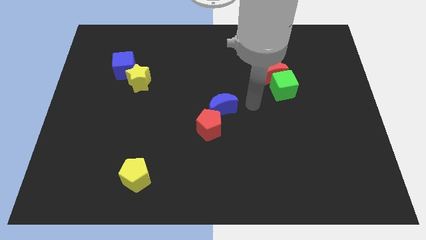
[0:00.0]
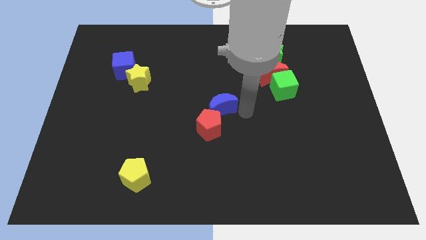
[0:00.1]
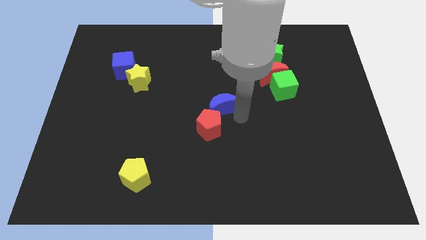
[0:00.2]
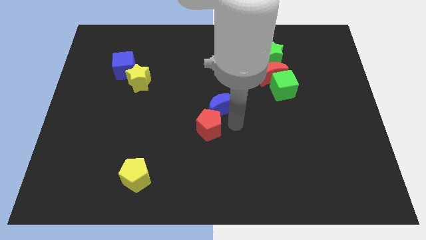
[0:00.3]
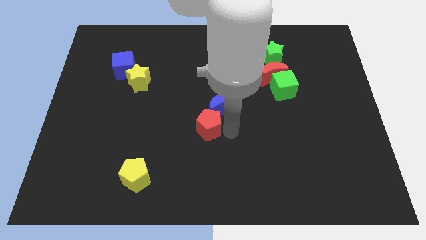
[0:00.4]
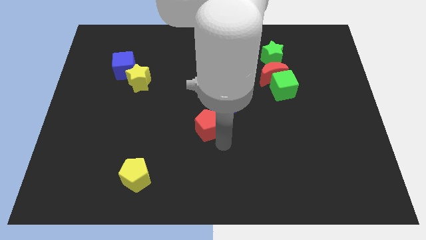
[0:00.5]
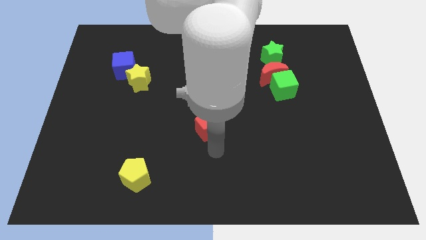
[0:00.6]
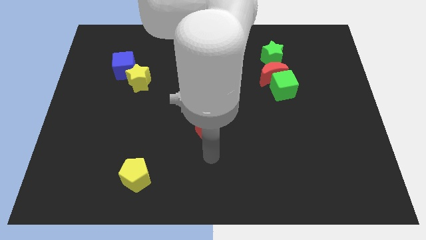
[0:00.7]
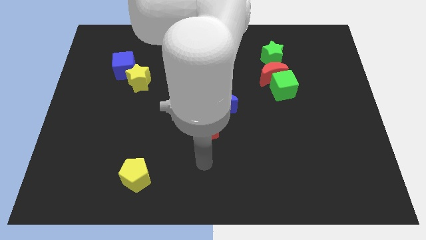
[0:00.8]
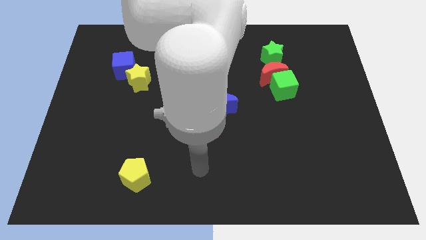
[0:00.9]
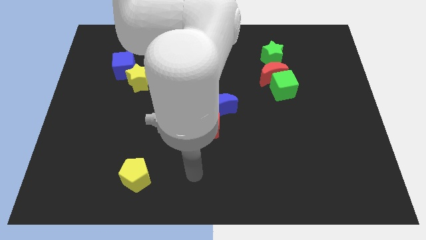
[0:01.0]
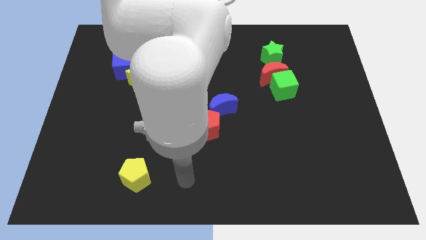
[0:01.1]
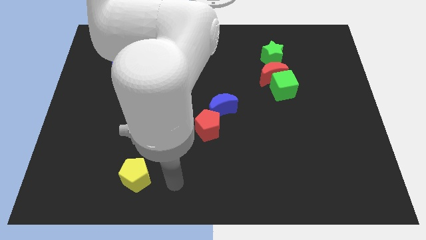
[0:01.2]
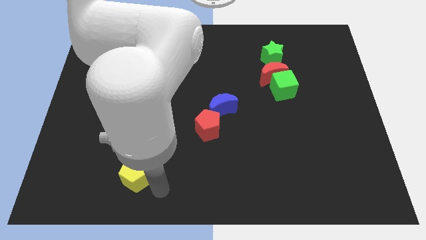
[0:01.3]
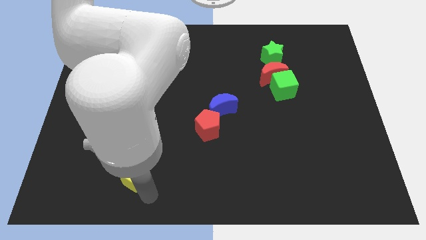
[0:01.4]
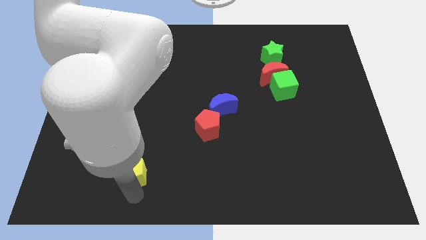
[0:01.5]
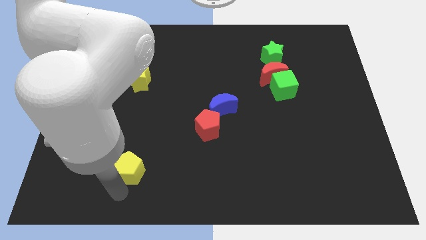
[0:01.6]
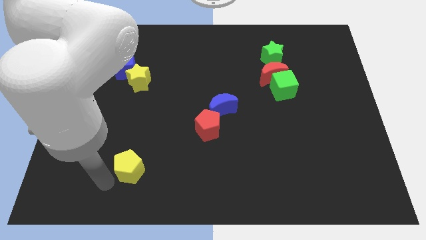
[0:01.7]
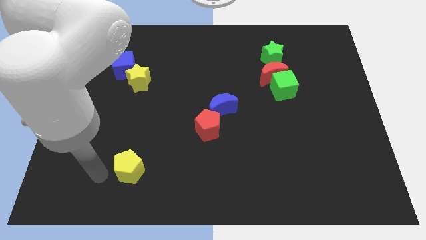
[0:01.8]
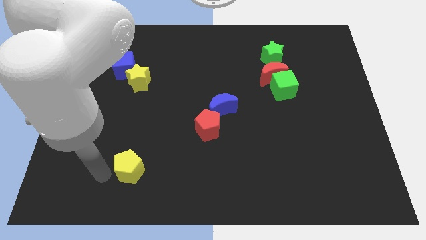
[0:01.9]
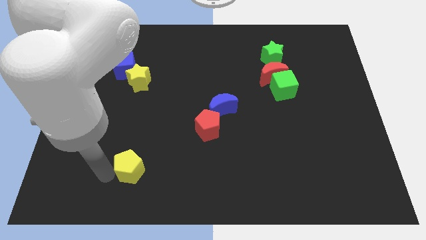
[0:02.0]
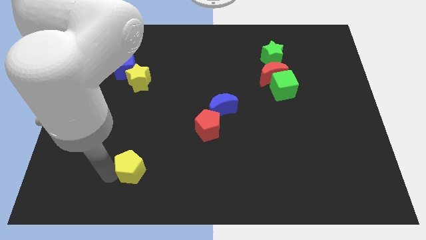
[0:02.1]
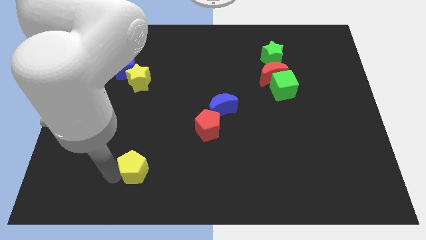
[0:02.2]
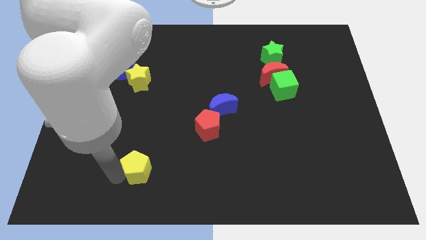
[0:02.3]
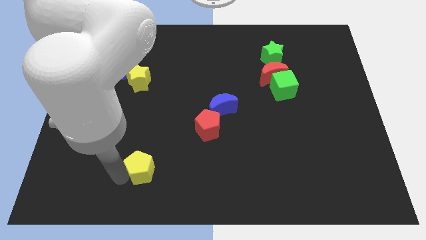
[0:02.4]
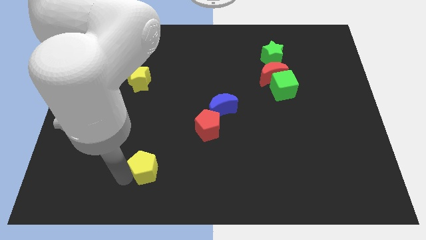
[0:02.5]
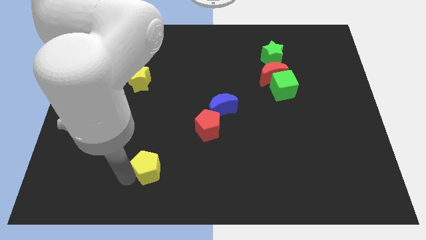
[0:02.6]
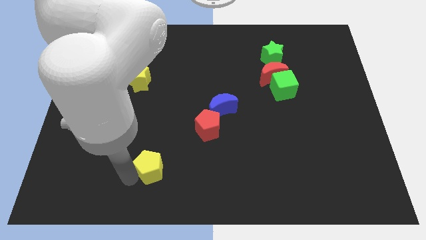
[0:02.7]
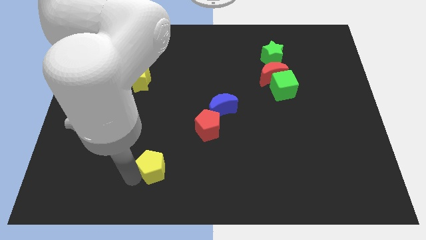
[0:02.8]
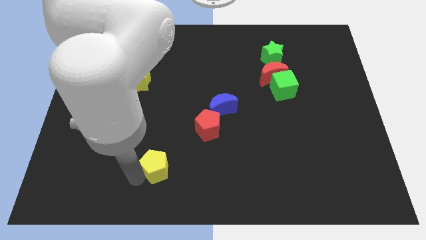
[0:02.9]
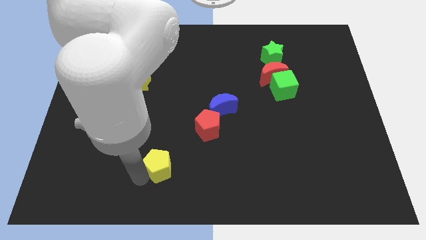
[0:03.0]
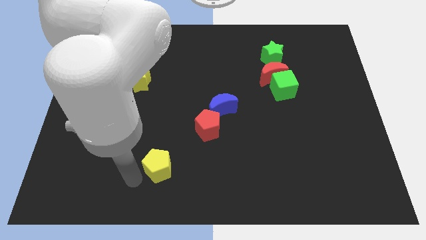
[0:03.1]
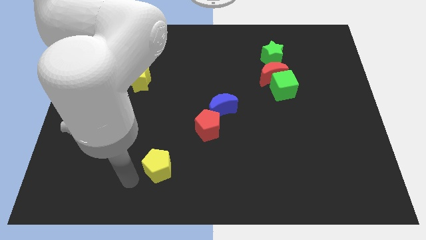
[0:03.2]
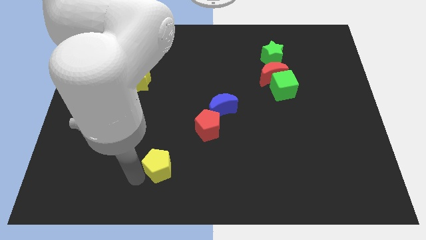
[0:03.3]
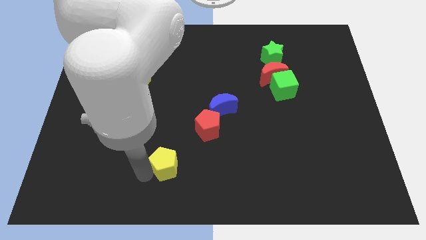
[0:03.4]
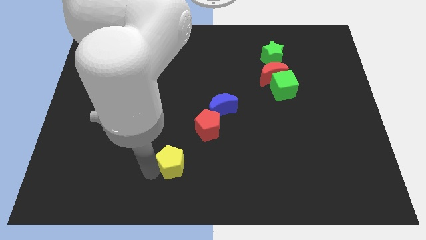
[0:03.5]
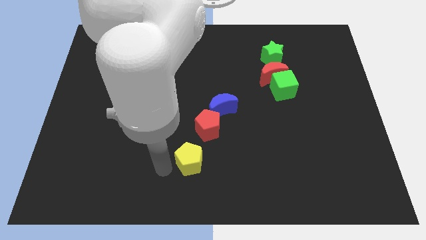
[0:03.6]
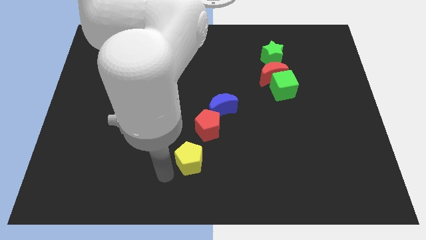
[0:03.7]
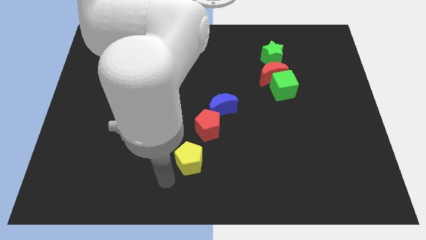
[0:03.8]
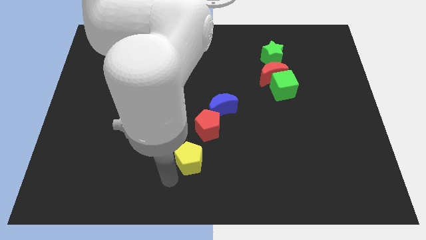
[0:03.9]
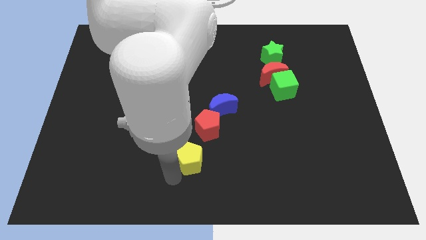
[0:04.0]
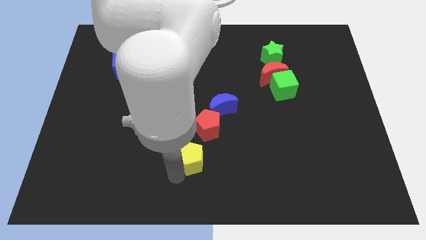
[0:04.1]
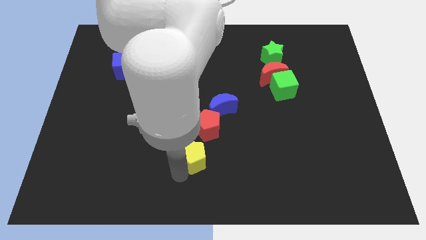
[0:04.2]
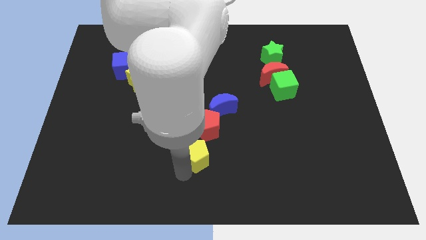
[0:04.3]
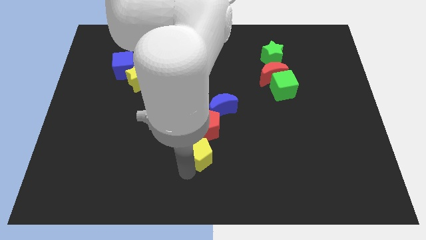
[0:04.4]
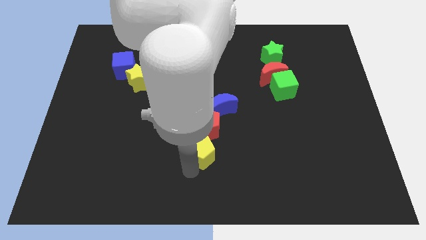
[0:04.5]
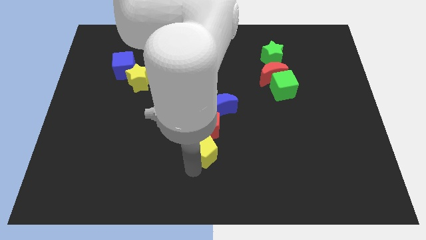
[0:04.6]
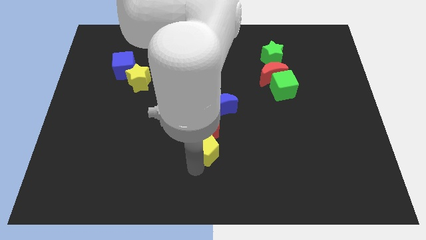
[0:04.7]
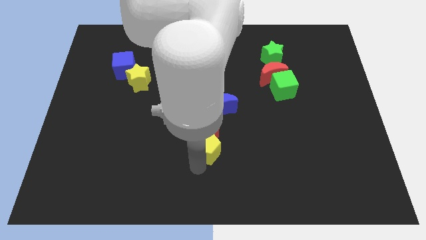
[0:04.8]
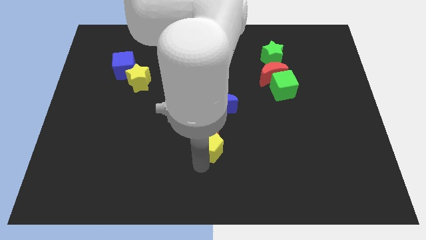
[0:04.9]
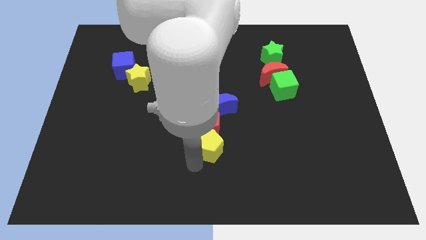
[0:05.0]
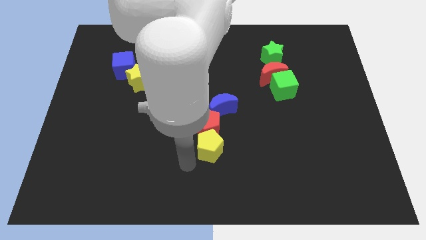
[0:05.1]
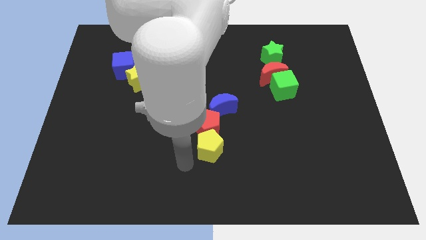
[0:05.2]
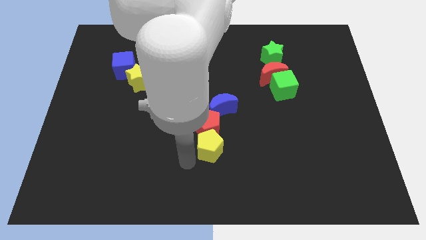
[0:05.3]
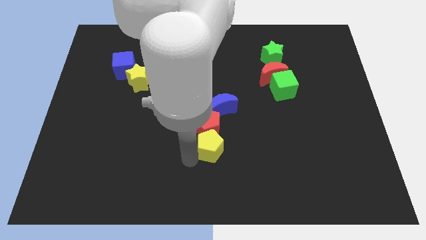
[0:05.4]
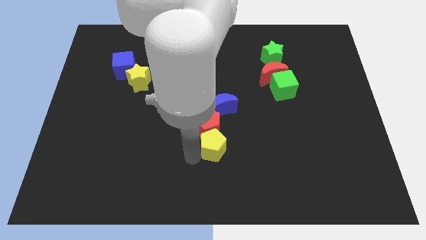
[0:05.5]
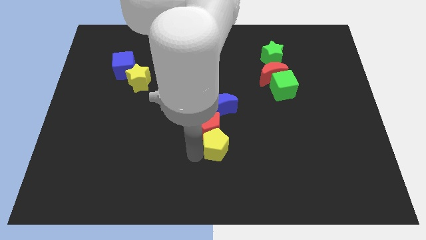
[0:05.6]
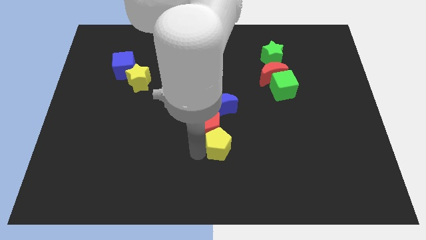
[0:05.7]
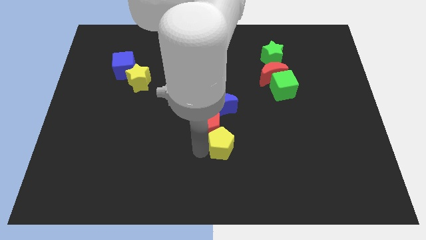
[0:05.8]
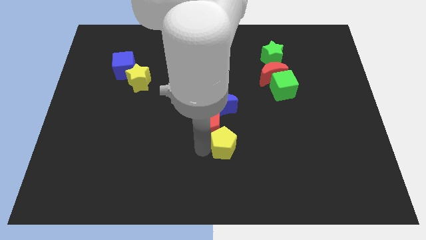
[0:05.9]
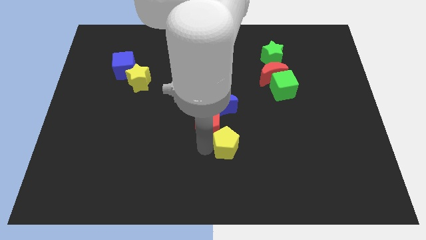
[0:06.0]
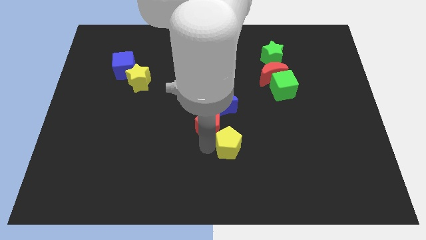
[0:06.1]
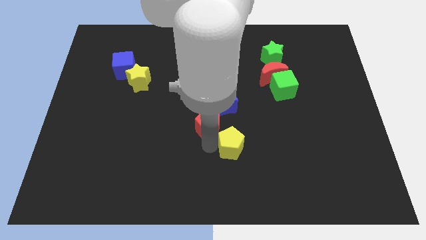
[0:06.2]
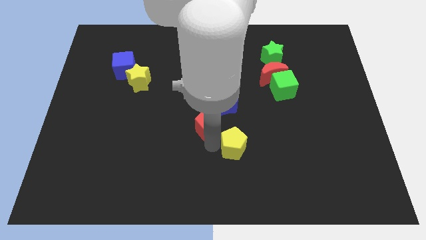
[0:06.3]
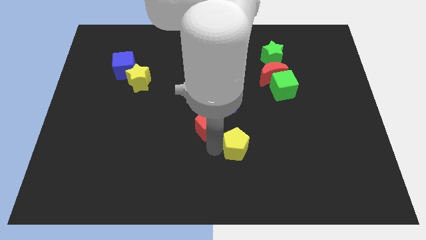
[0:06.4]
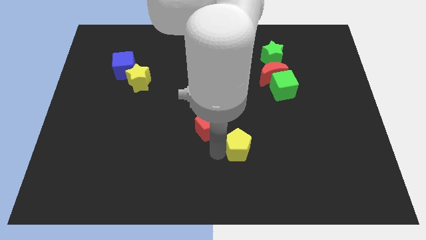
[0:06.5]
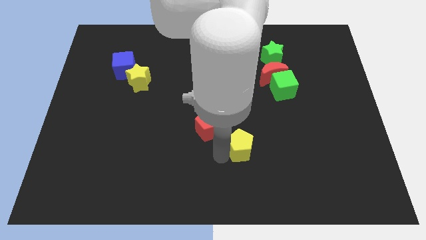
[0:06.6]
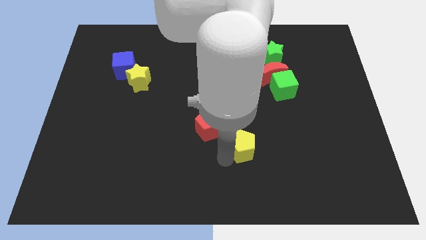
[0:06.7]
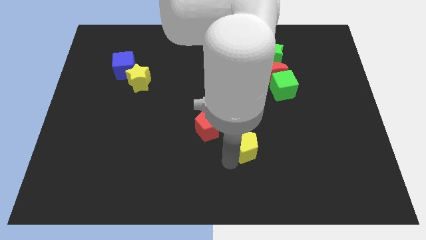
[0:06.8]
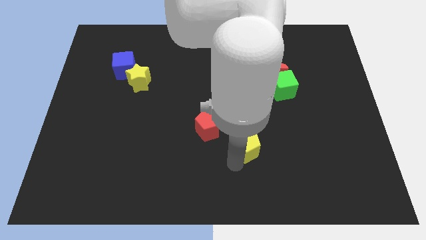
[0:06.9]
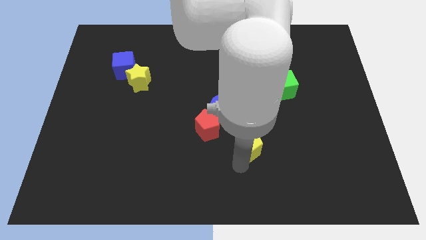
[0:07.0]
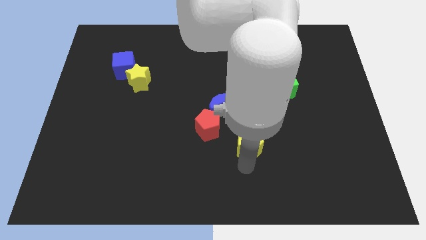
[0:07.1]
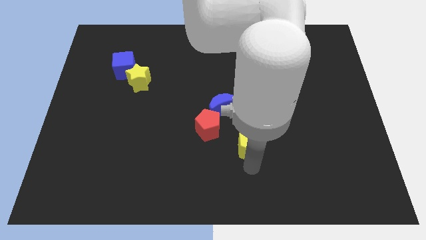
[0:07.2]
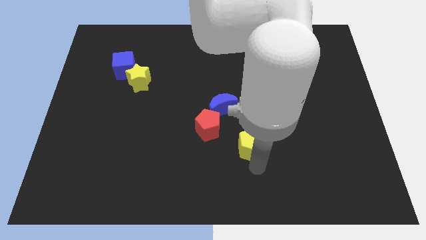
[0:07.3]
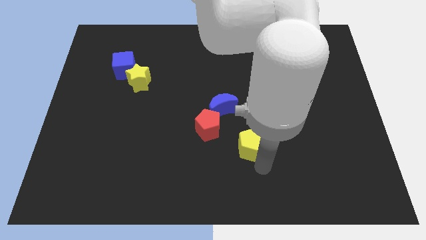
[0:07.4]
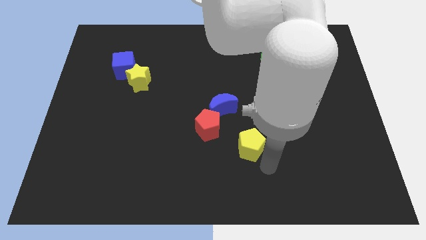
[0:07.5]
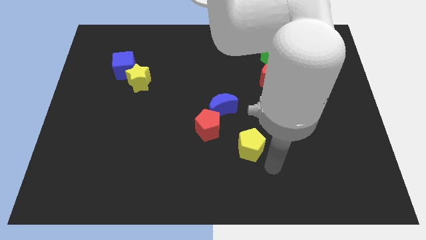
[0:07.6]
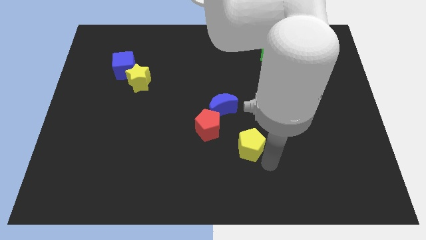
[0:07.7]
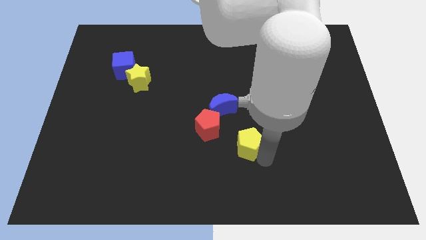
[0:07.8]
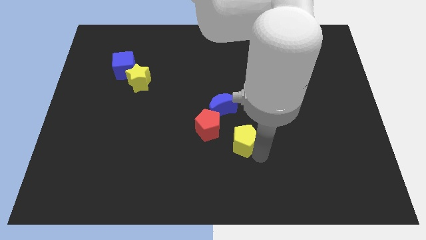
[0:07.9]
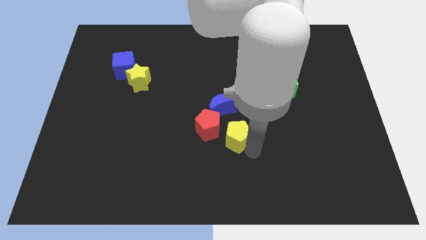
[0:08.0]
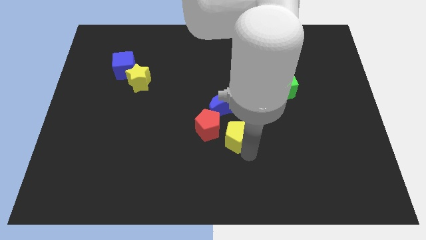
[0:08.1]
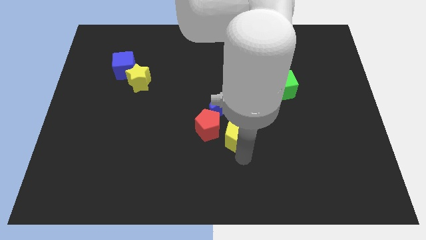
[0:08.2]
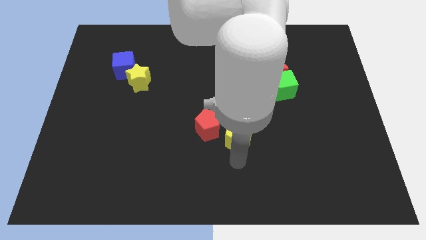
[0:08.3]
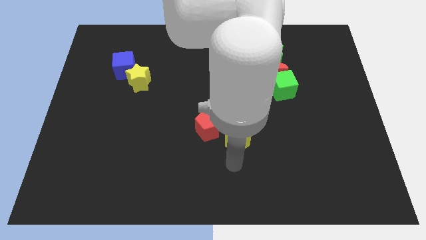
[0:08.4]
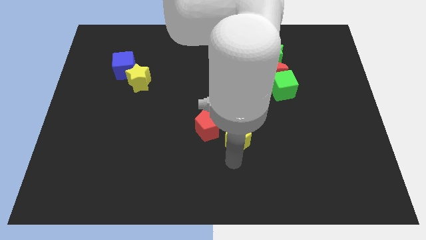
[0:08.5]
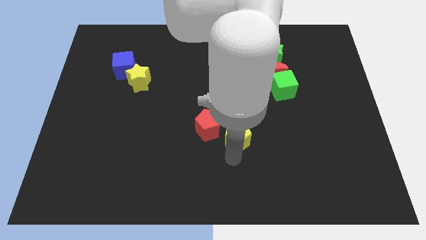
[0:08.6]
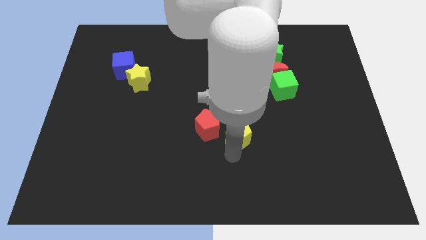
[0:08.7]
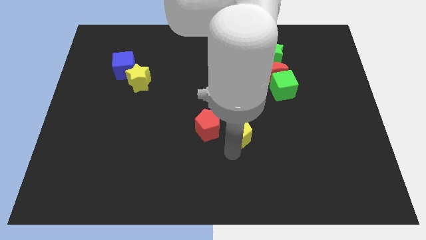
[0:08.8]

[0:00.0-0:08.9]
move the yellow pentagon upwards and right
